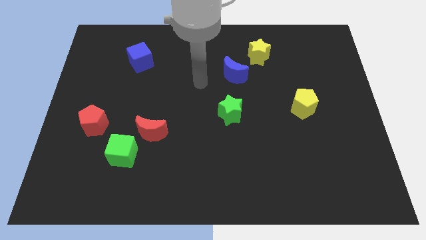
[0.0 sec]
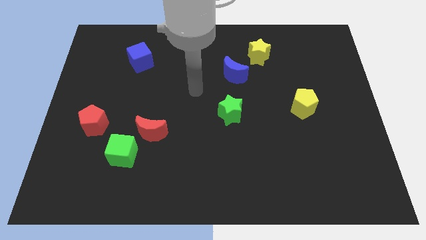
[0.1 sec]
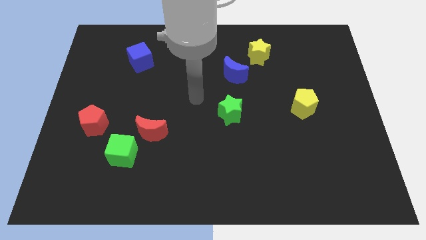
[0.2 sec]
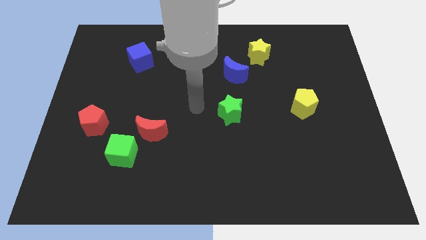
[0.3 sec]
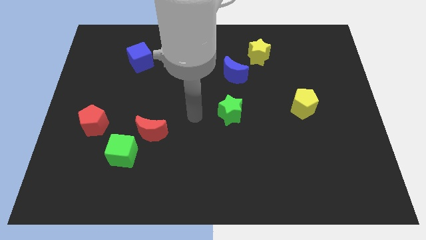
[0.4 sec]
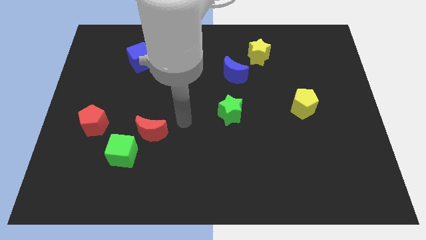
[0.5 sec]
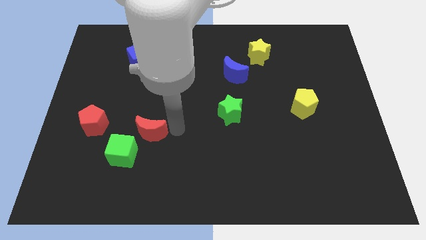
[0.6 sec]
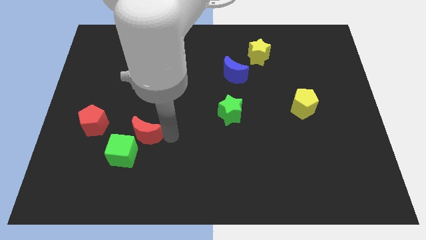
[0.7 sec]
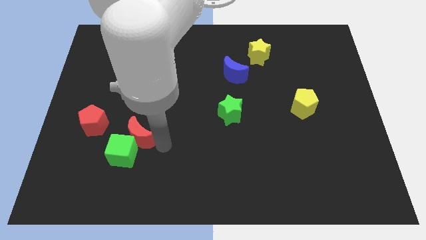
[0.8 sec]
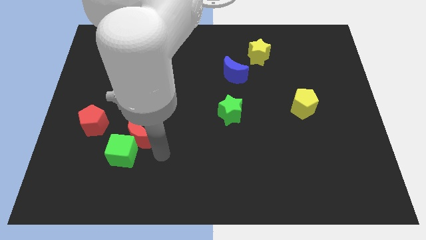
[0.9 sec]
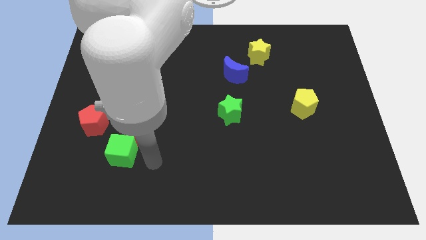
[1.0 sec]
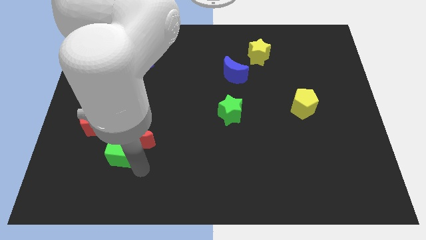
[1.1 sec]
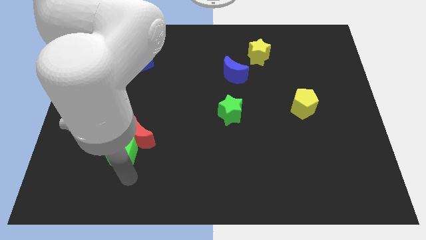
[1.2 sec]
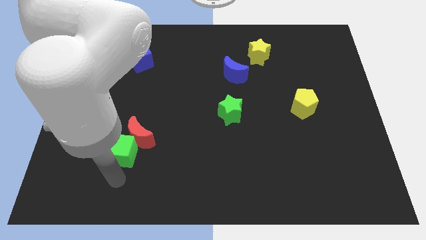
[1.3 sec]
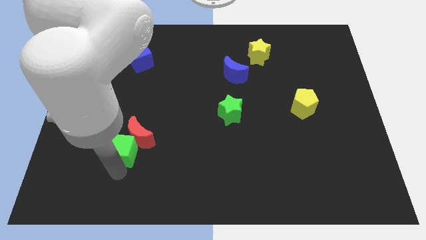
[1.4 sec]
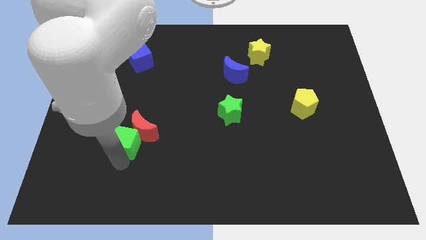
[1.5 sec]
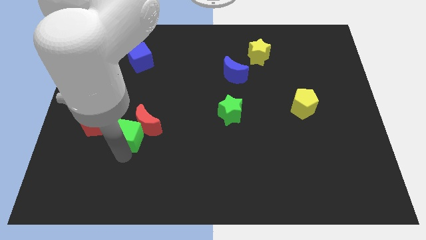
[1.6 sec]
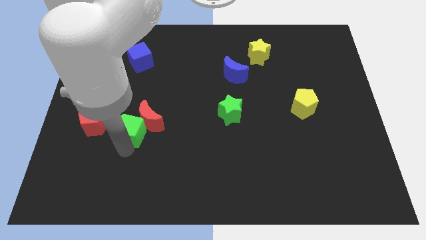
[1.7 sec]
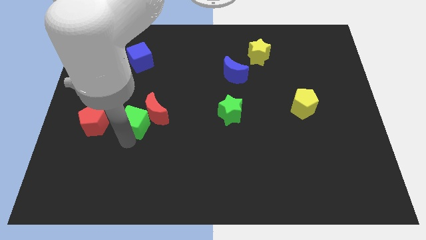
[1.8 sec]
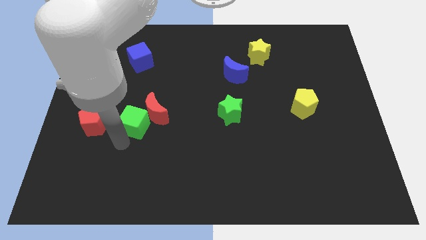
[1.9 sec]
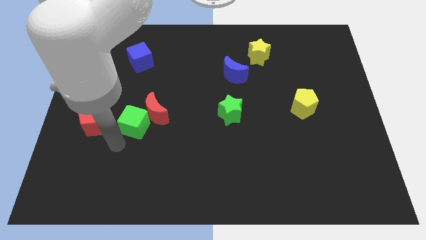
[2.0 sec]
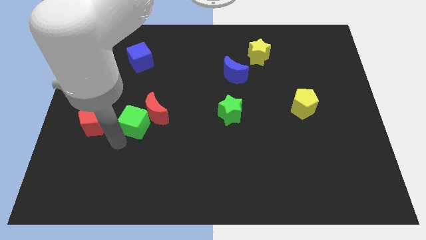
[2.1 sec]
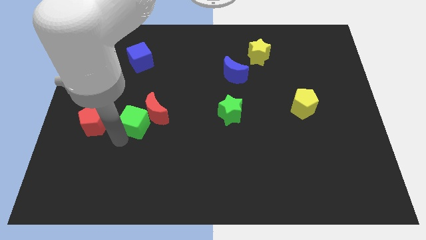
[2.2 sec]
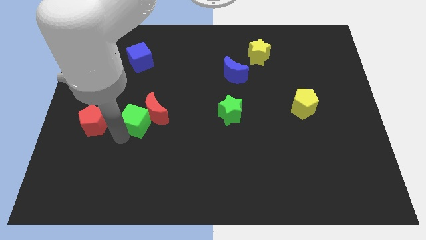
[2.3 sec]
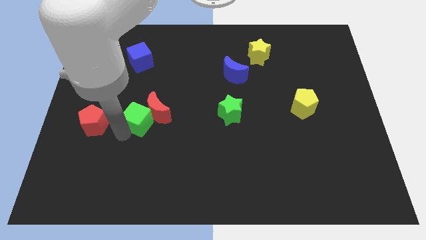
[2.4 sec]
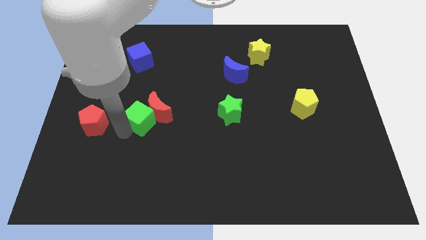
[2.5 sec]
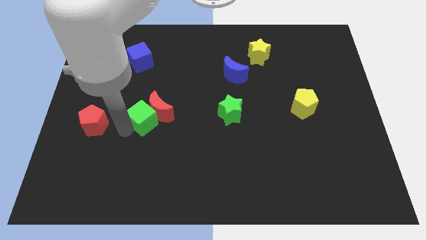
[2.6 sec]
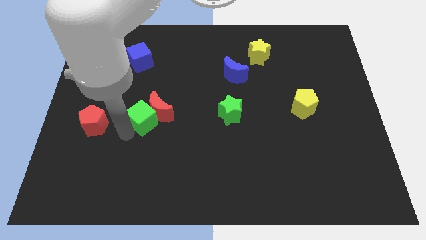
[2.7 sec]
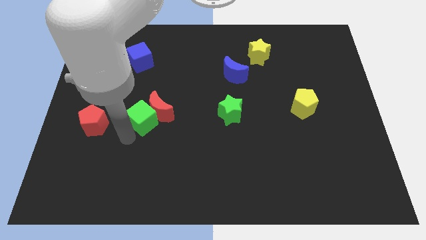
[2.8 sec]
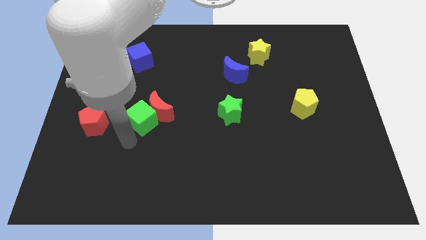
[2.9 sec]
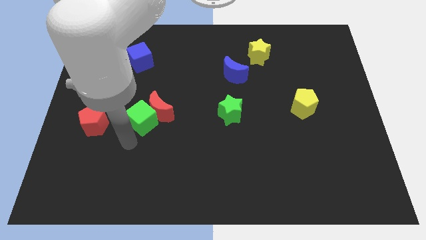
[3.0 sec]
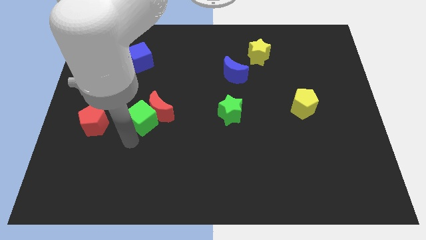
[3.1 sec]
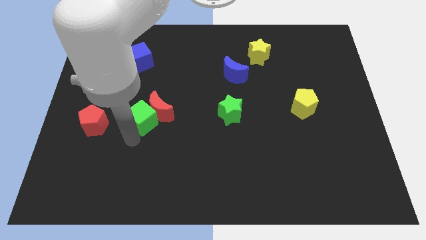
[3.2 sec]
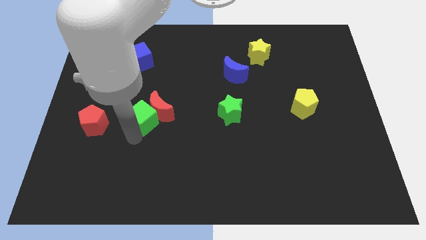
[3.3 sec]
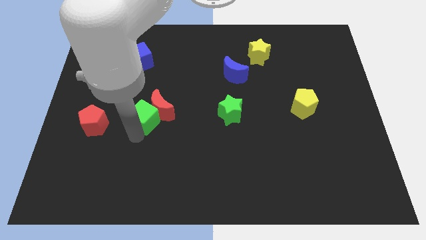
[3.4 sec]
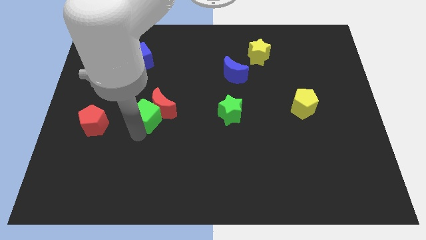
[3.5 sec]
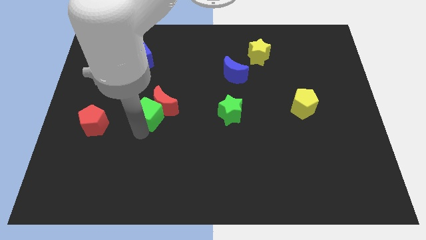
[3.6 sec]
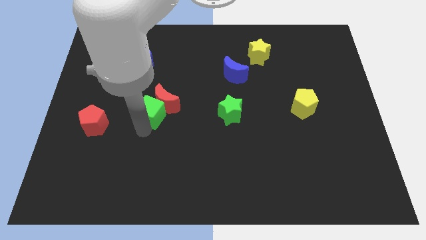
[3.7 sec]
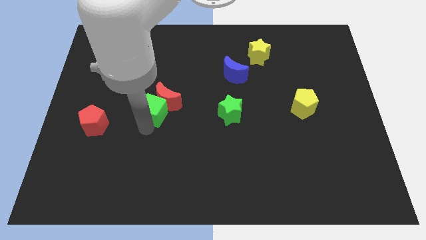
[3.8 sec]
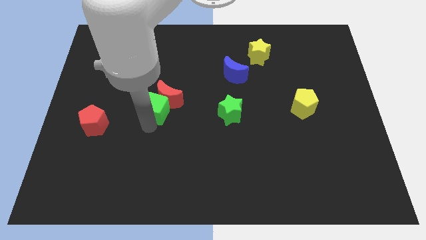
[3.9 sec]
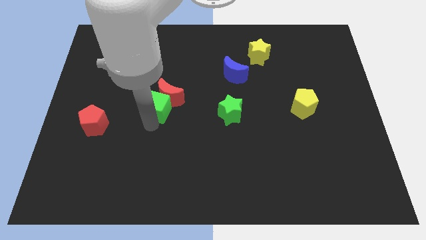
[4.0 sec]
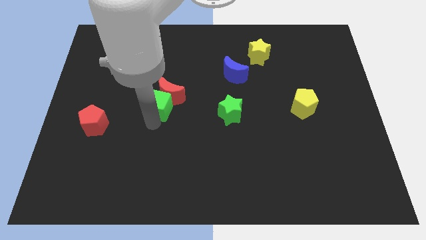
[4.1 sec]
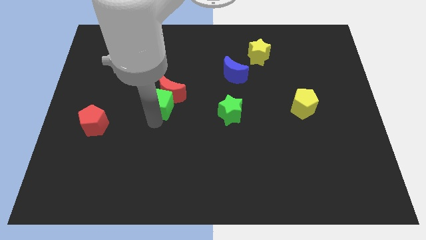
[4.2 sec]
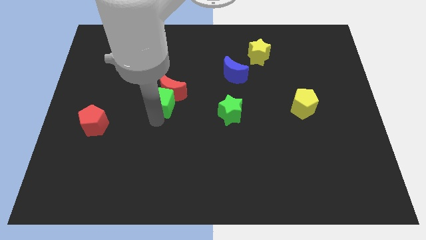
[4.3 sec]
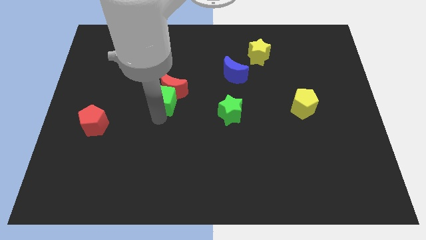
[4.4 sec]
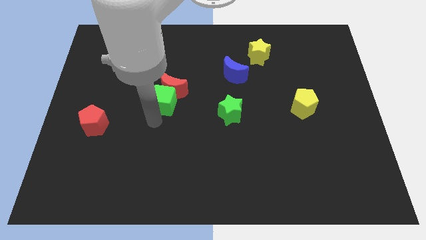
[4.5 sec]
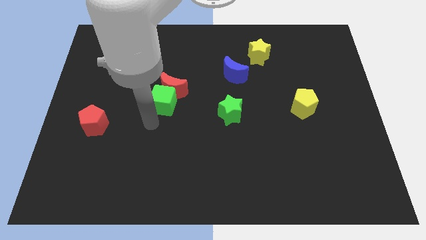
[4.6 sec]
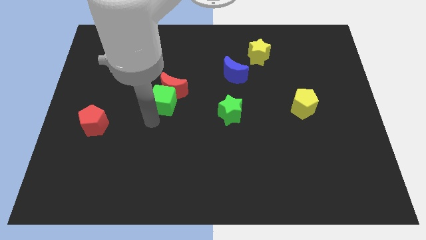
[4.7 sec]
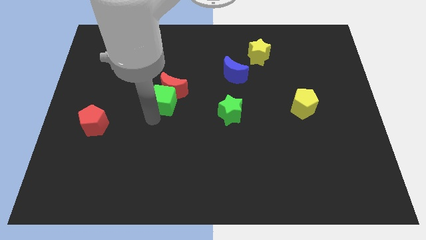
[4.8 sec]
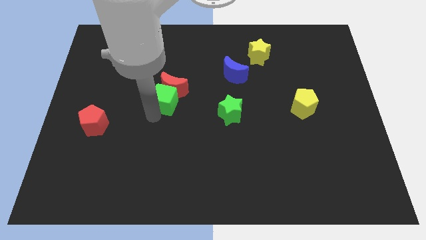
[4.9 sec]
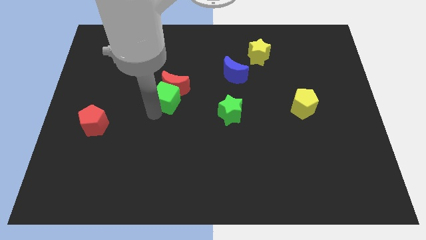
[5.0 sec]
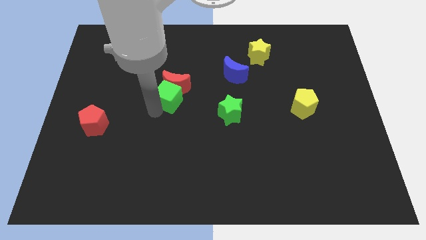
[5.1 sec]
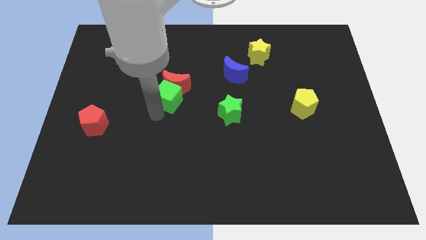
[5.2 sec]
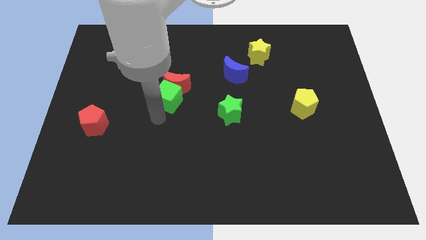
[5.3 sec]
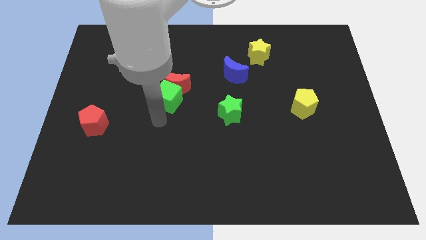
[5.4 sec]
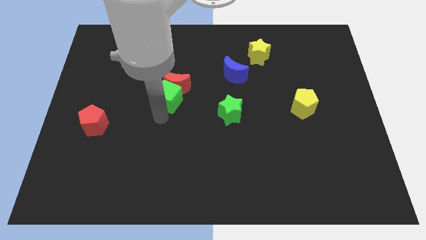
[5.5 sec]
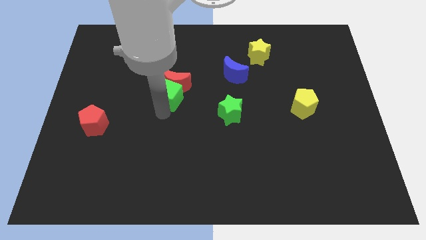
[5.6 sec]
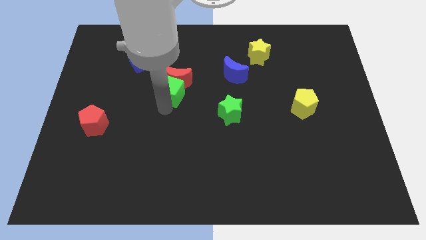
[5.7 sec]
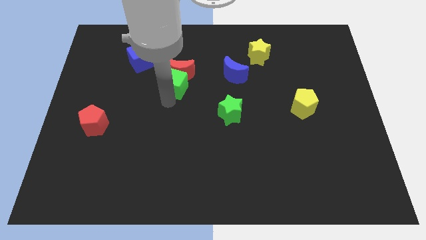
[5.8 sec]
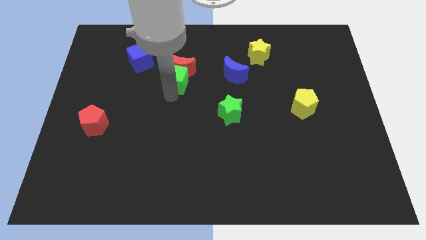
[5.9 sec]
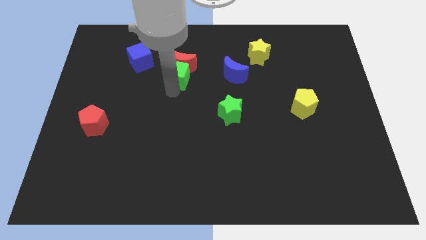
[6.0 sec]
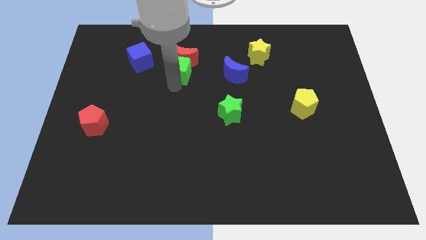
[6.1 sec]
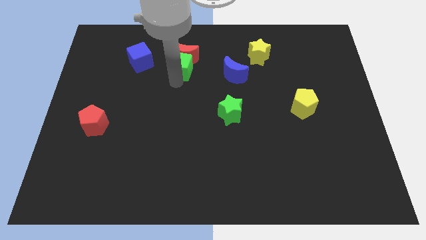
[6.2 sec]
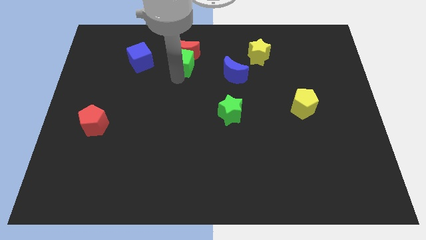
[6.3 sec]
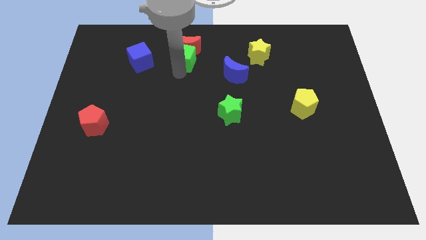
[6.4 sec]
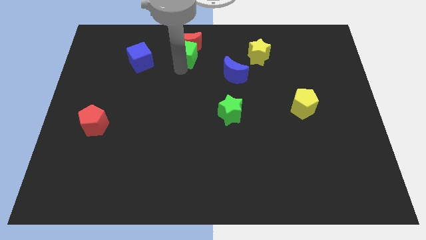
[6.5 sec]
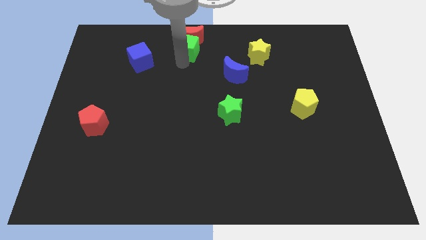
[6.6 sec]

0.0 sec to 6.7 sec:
put the green cube to the towards your base
